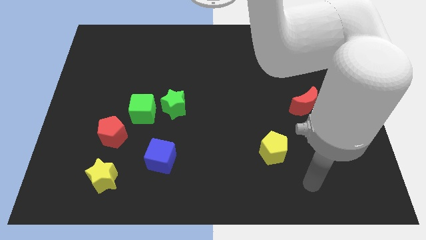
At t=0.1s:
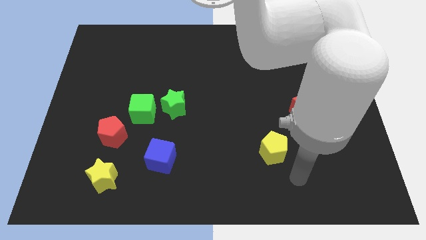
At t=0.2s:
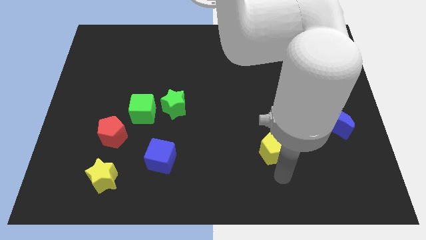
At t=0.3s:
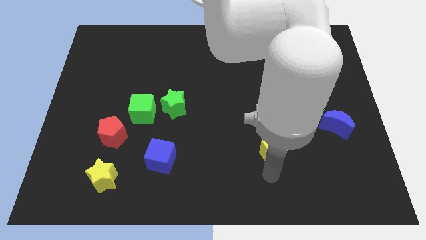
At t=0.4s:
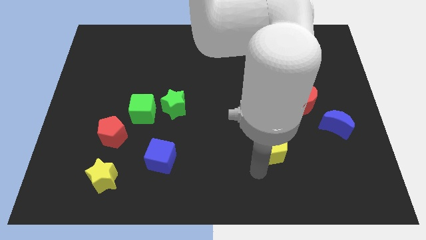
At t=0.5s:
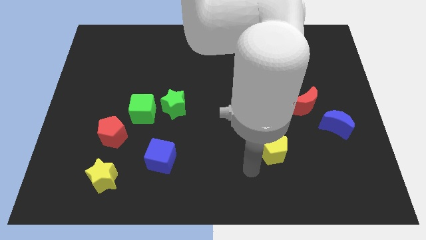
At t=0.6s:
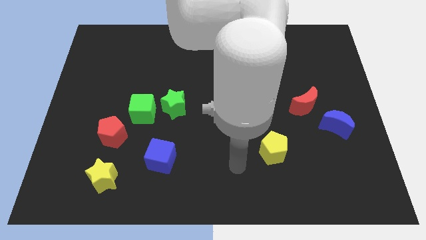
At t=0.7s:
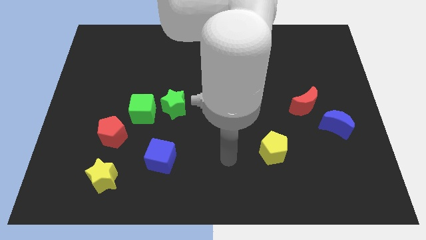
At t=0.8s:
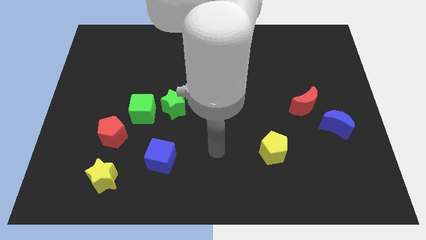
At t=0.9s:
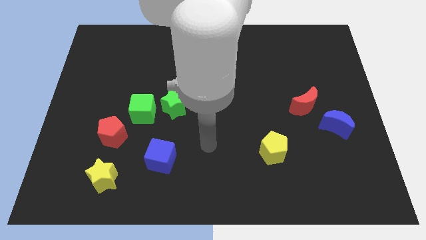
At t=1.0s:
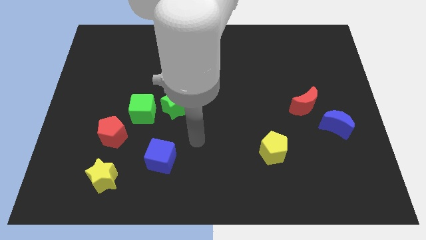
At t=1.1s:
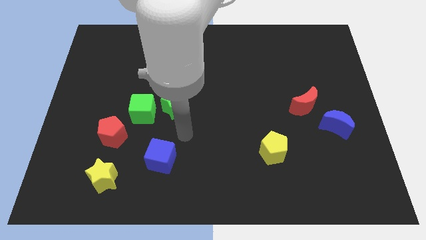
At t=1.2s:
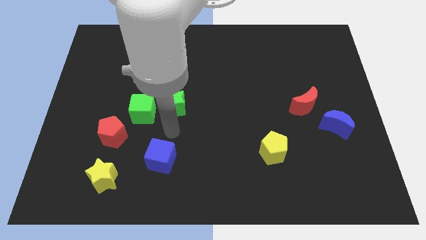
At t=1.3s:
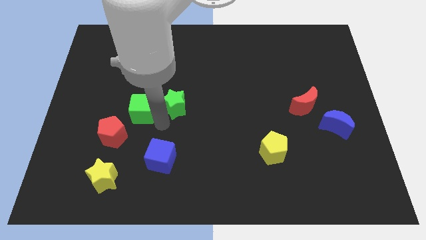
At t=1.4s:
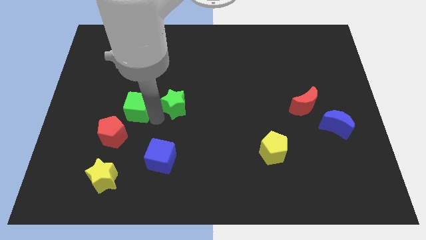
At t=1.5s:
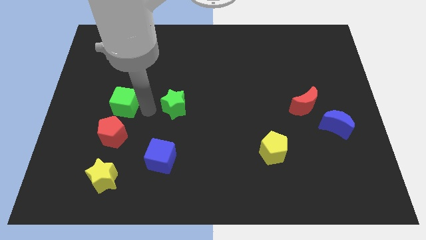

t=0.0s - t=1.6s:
pull the green star apart from the green cube

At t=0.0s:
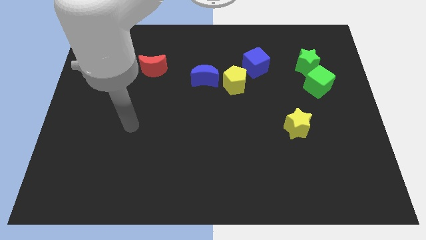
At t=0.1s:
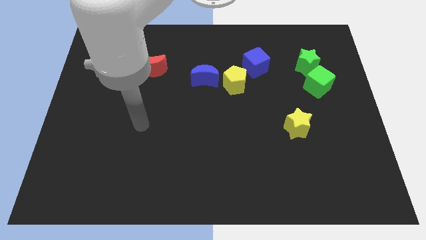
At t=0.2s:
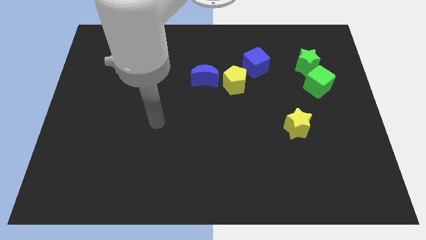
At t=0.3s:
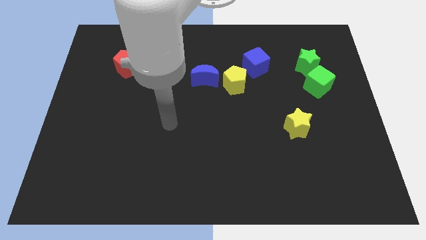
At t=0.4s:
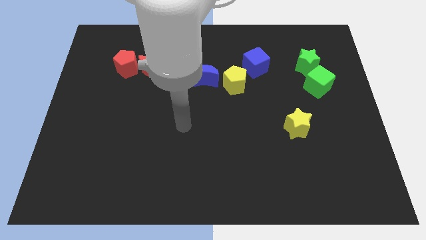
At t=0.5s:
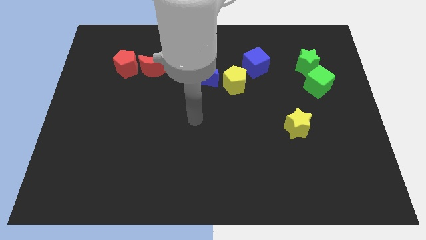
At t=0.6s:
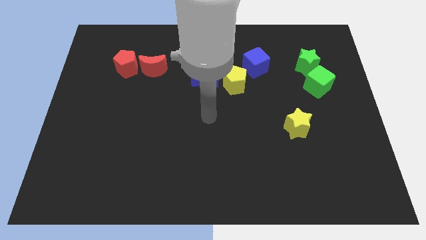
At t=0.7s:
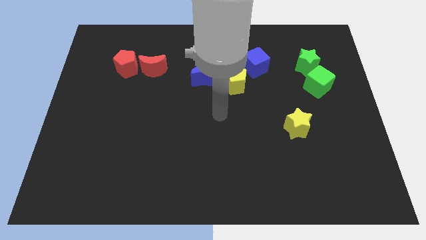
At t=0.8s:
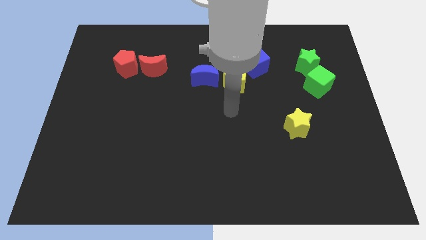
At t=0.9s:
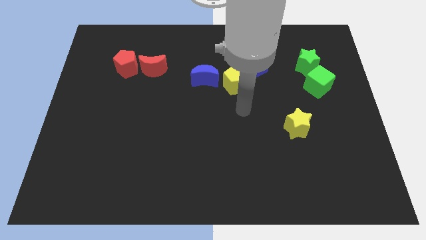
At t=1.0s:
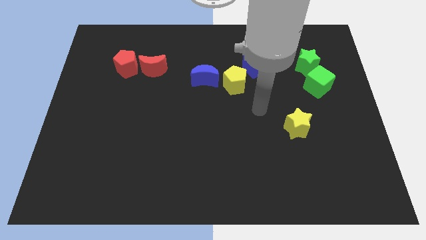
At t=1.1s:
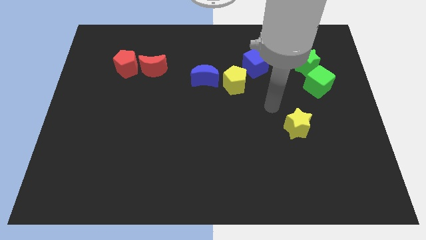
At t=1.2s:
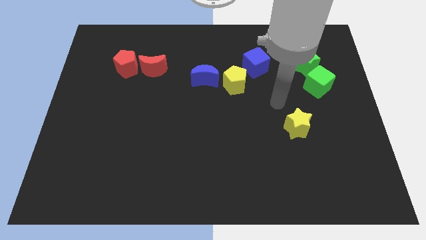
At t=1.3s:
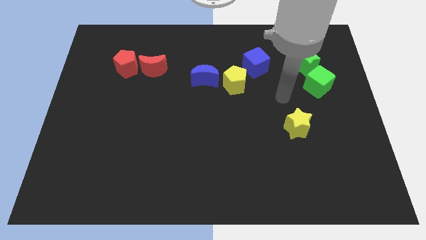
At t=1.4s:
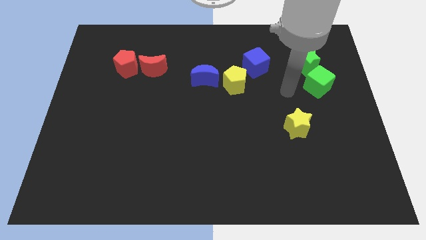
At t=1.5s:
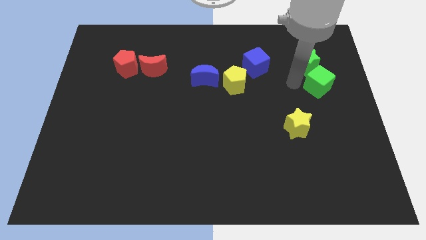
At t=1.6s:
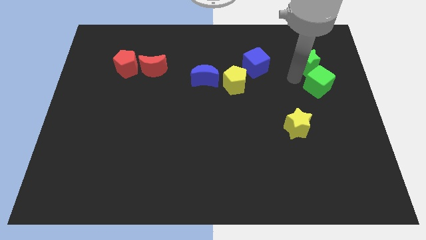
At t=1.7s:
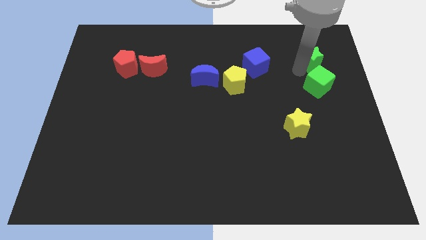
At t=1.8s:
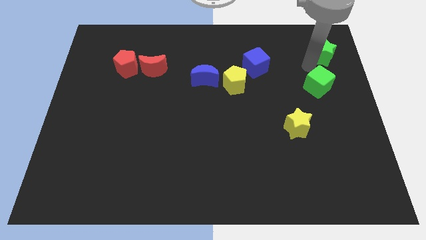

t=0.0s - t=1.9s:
pull the green cube apart from the green star

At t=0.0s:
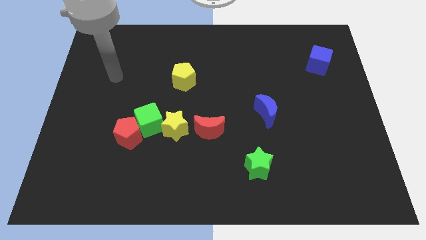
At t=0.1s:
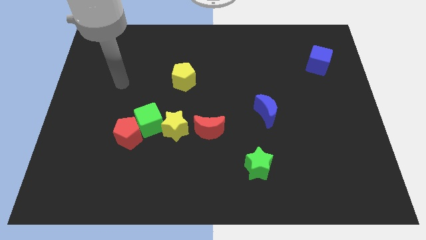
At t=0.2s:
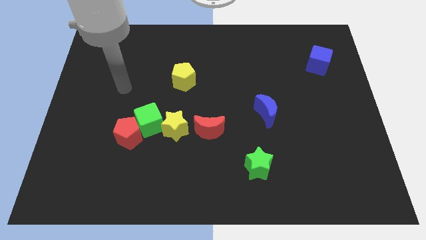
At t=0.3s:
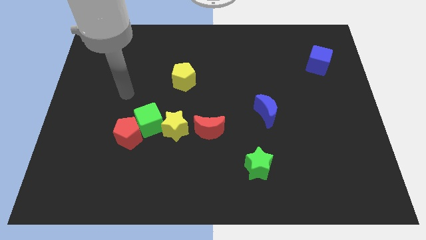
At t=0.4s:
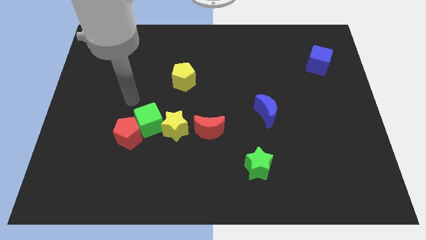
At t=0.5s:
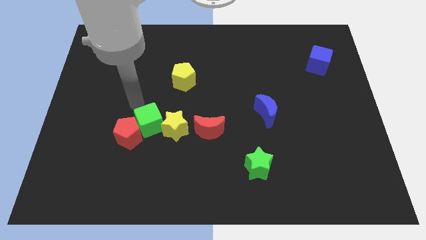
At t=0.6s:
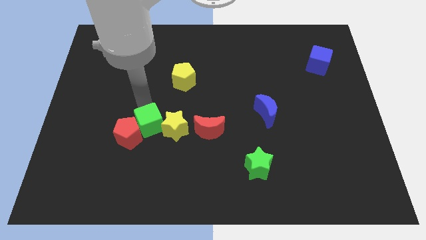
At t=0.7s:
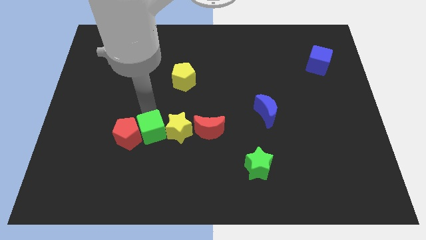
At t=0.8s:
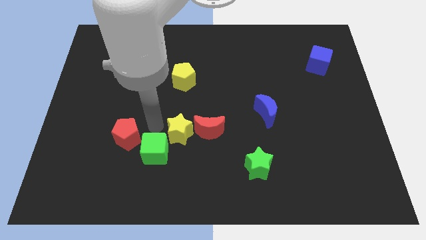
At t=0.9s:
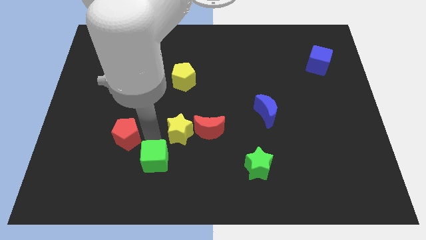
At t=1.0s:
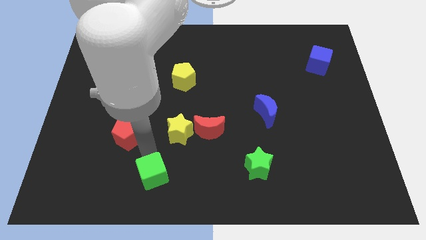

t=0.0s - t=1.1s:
pull the red pentagon apart from the green cube

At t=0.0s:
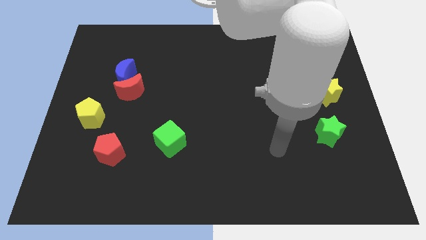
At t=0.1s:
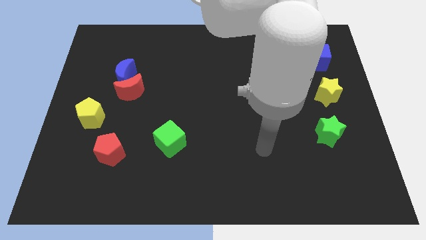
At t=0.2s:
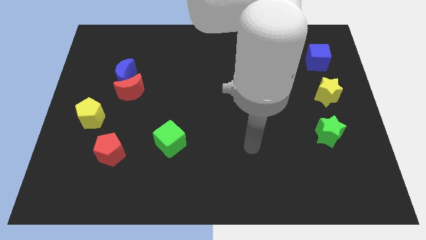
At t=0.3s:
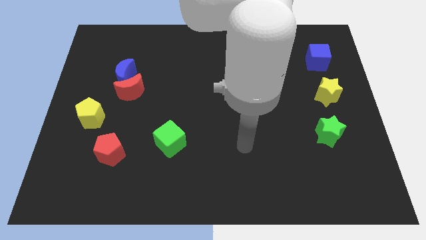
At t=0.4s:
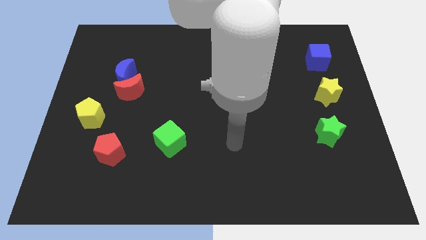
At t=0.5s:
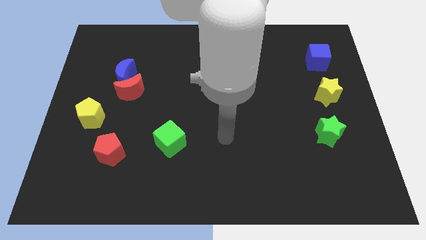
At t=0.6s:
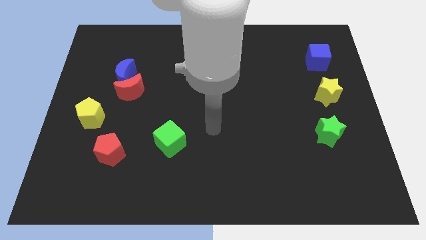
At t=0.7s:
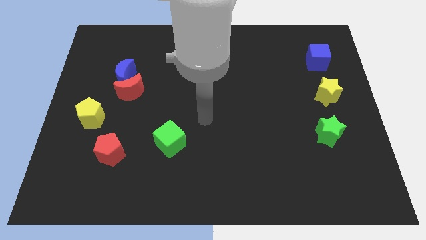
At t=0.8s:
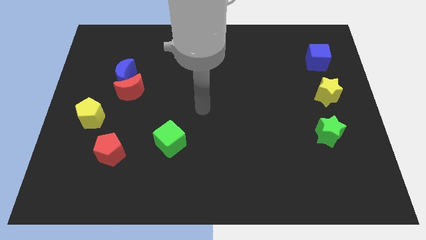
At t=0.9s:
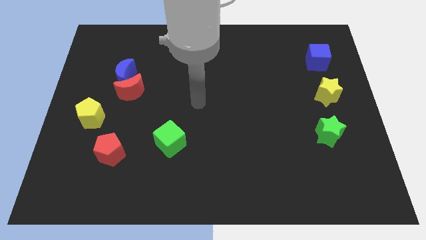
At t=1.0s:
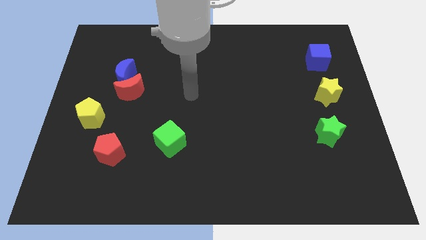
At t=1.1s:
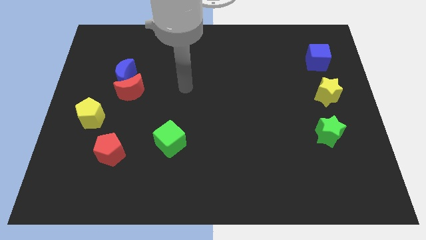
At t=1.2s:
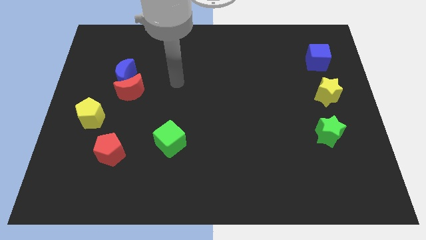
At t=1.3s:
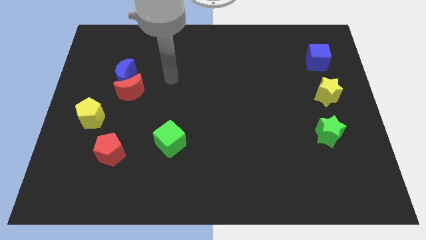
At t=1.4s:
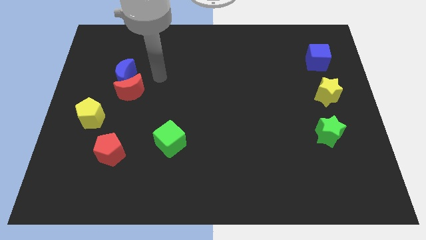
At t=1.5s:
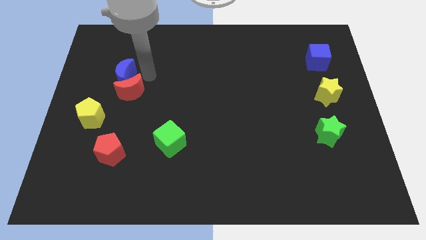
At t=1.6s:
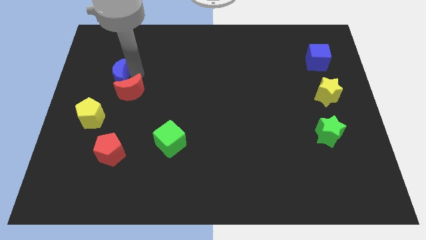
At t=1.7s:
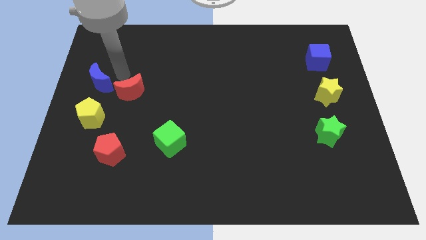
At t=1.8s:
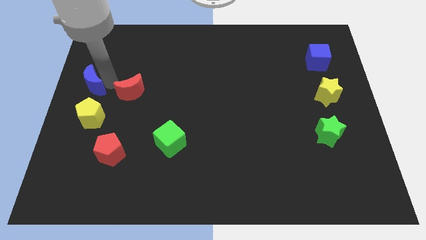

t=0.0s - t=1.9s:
separate the red moon from the blue moon

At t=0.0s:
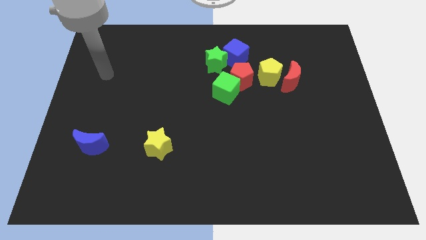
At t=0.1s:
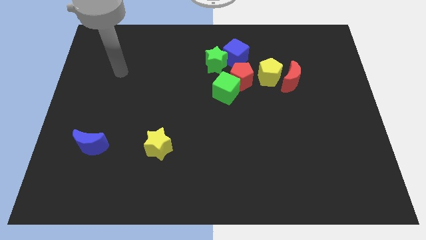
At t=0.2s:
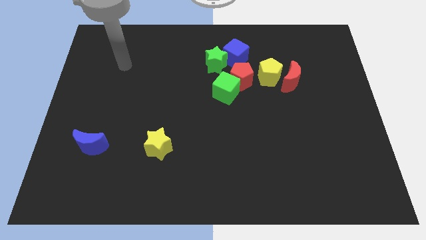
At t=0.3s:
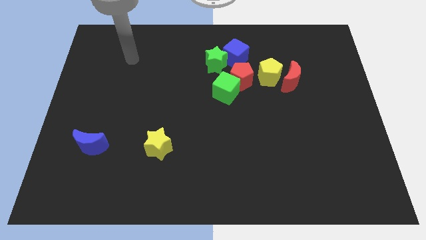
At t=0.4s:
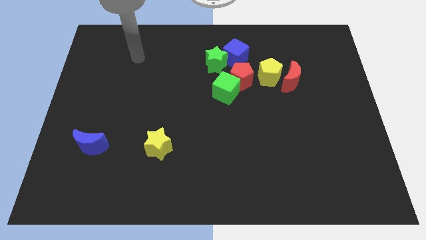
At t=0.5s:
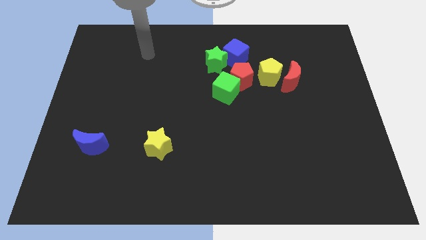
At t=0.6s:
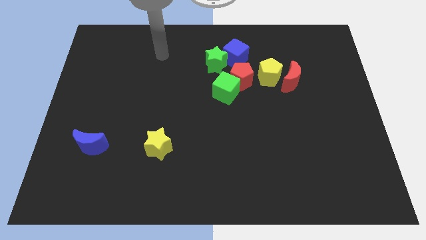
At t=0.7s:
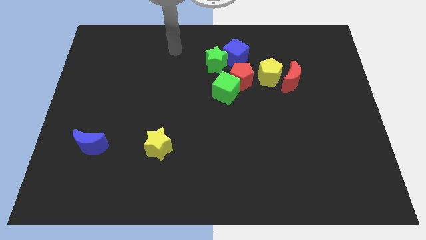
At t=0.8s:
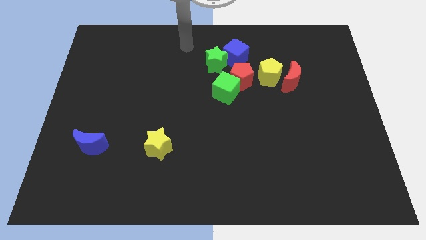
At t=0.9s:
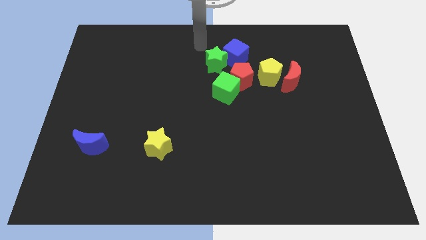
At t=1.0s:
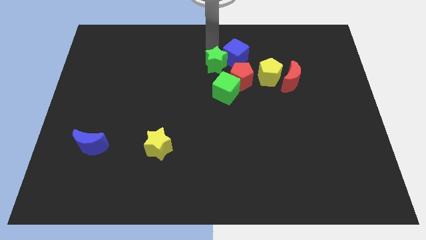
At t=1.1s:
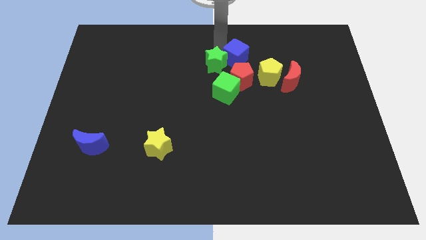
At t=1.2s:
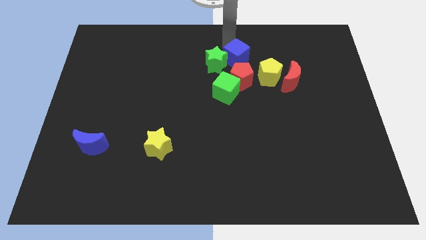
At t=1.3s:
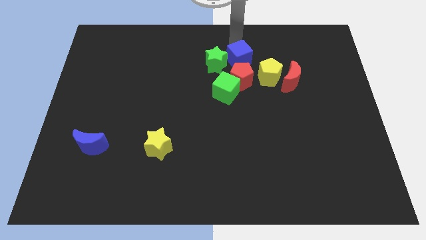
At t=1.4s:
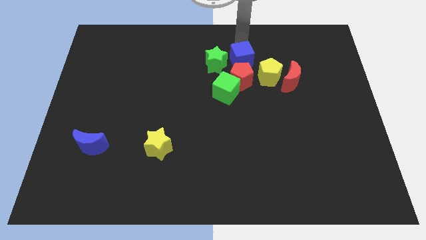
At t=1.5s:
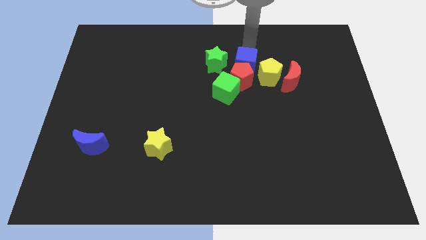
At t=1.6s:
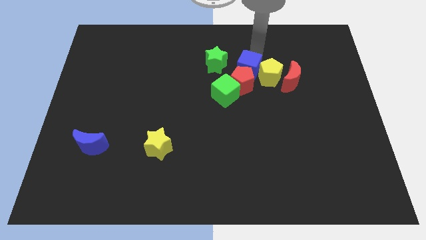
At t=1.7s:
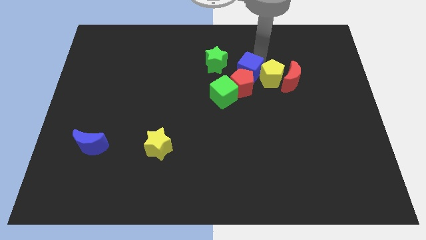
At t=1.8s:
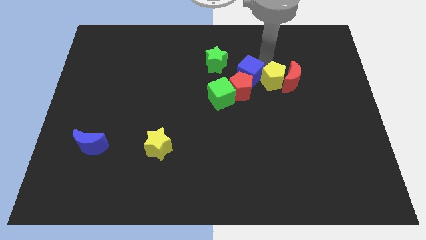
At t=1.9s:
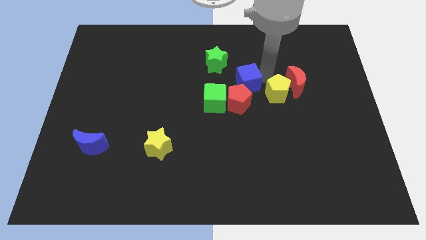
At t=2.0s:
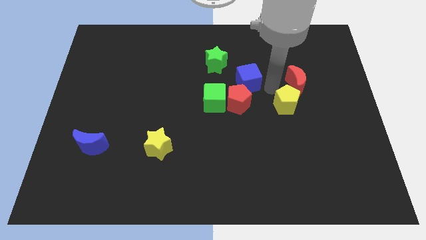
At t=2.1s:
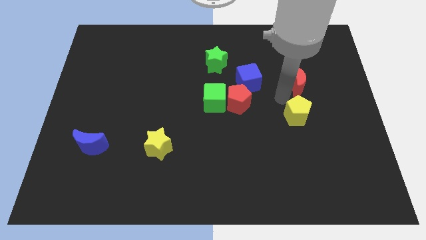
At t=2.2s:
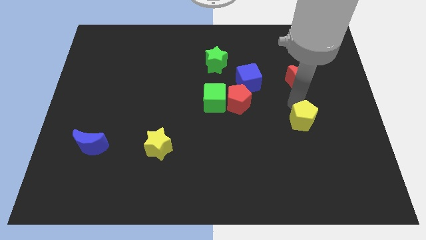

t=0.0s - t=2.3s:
separate the red moon from the yellow pentagon

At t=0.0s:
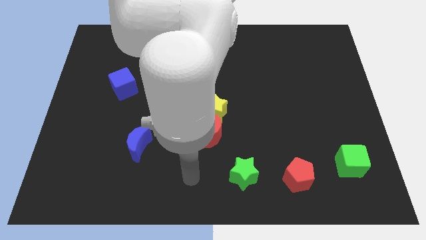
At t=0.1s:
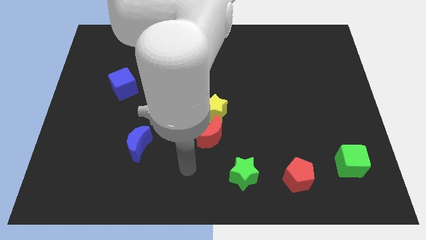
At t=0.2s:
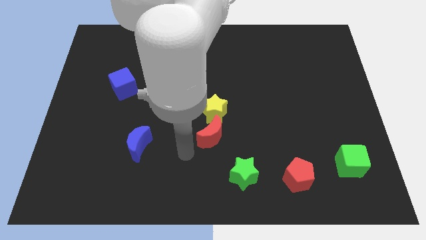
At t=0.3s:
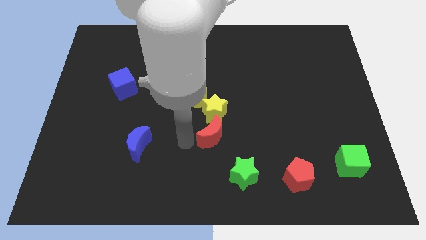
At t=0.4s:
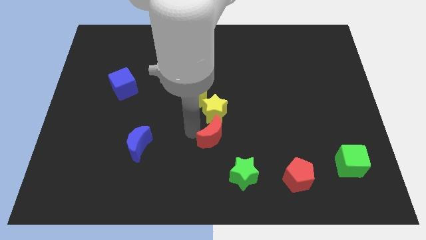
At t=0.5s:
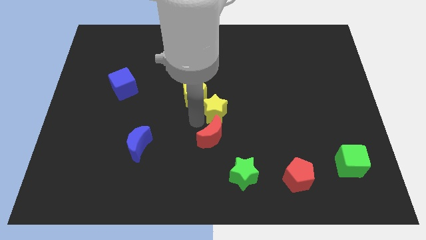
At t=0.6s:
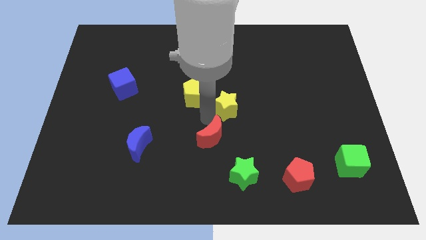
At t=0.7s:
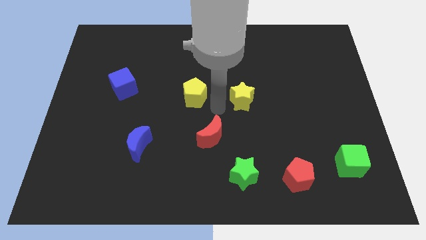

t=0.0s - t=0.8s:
pull the yellow pentagon apart from the yellow star
